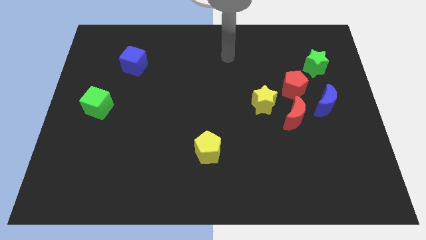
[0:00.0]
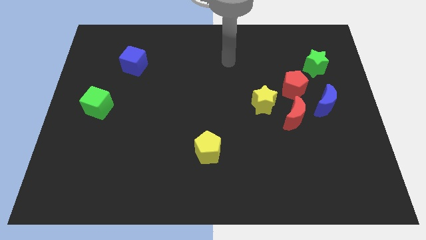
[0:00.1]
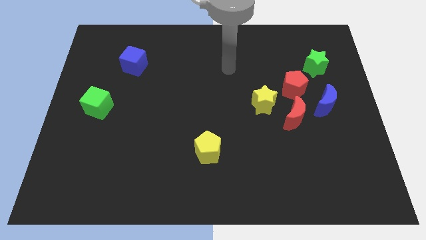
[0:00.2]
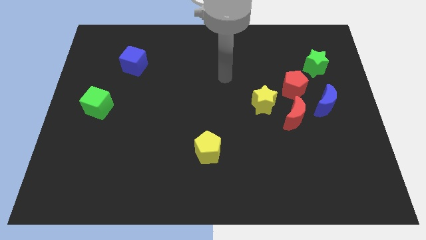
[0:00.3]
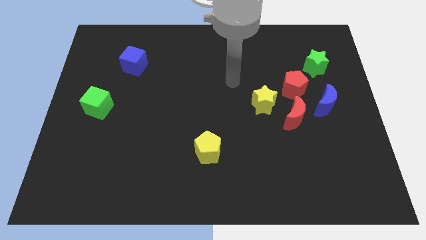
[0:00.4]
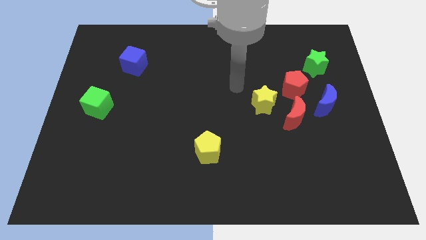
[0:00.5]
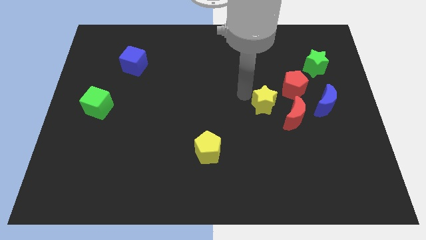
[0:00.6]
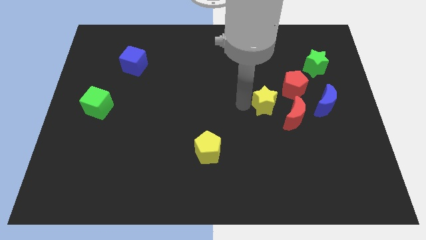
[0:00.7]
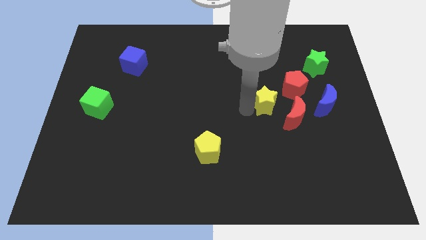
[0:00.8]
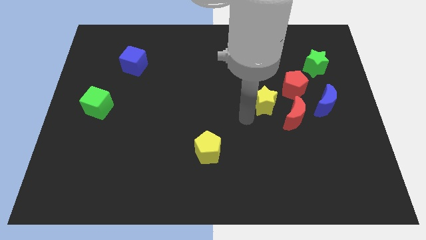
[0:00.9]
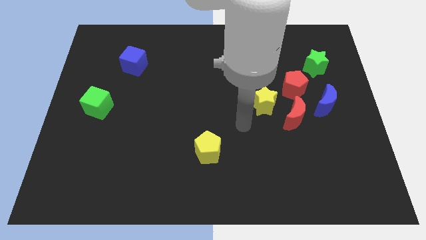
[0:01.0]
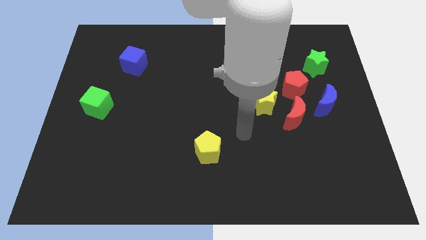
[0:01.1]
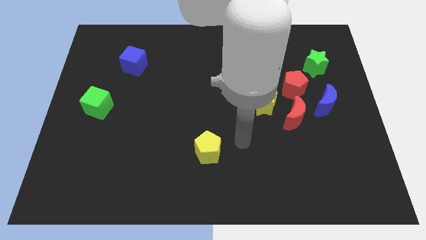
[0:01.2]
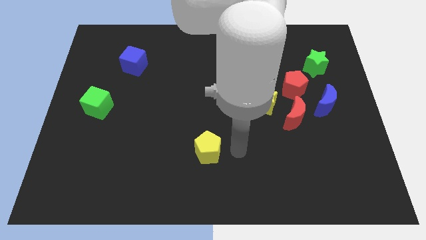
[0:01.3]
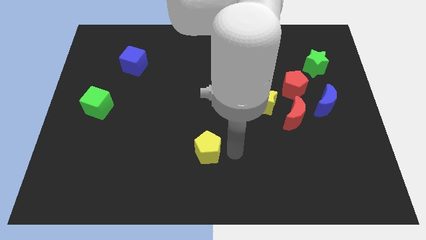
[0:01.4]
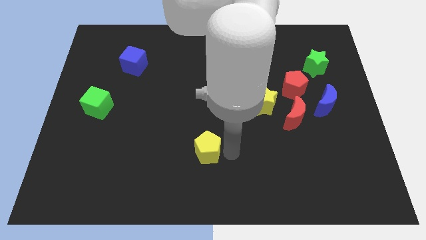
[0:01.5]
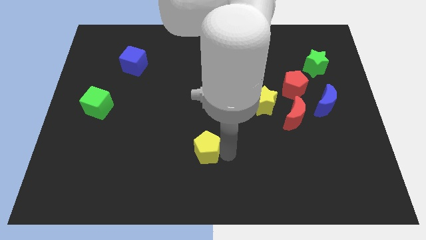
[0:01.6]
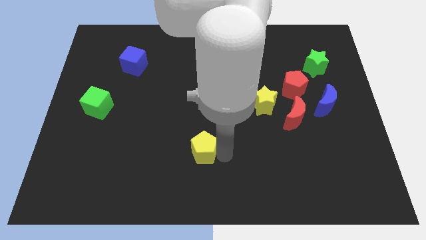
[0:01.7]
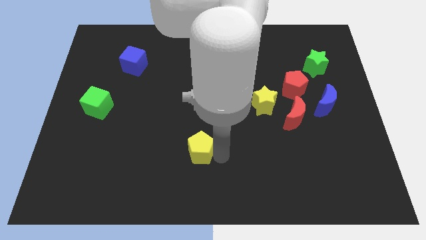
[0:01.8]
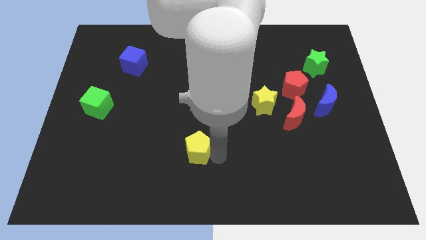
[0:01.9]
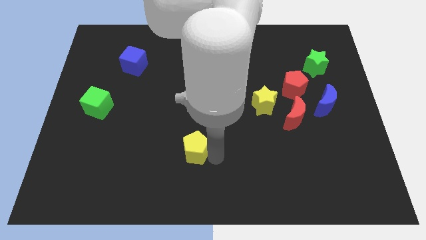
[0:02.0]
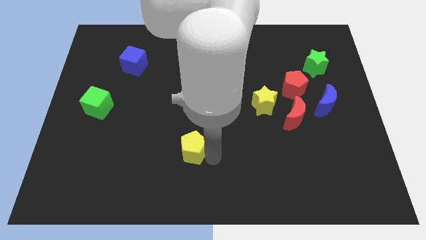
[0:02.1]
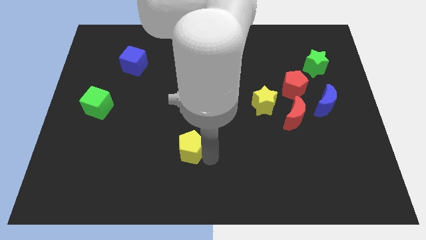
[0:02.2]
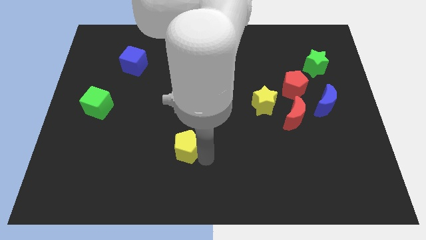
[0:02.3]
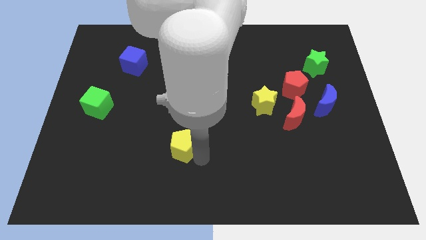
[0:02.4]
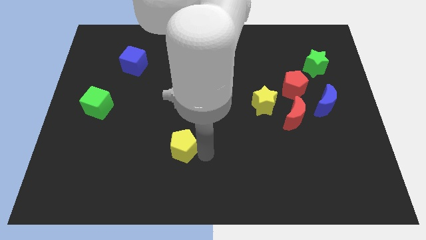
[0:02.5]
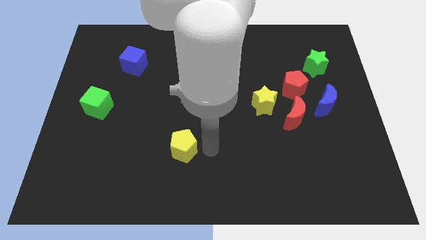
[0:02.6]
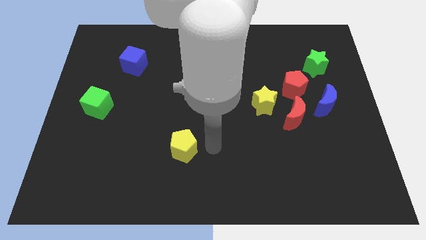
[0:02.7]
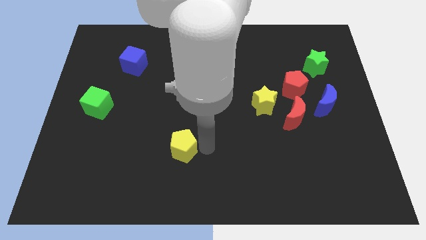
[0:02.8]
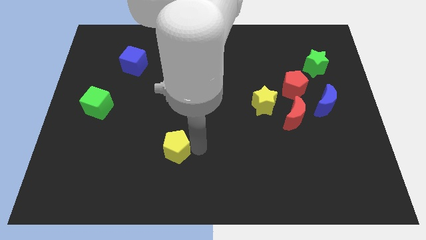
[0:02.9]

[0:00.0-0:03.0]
push the yellow pentagon a bit left

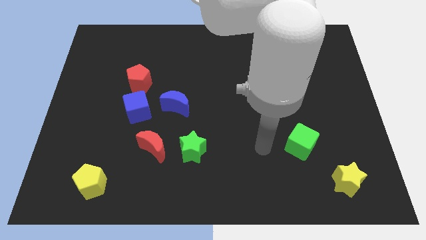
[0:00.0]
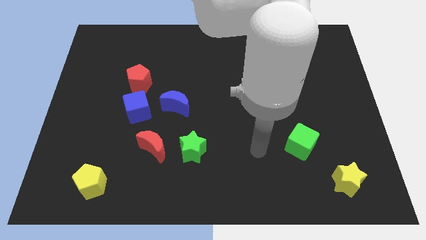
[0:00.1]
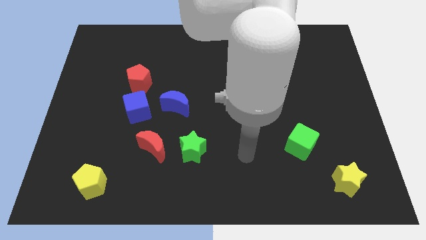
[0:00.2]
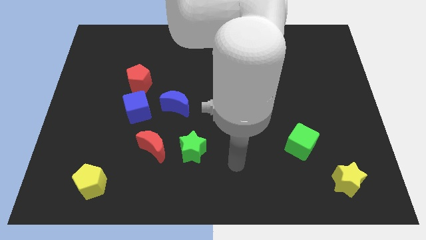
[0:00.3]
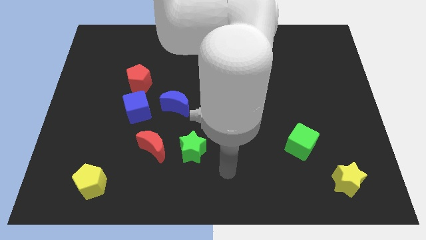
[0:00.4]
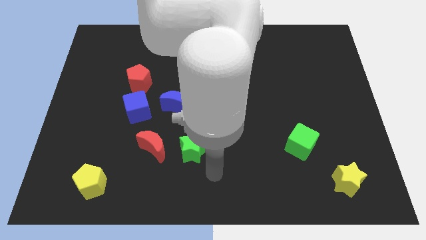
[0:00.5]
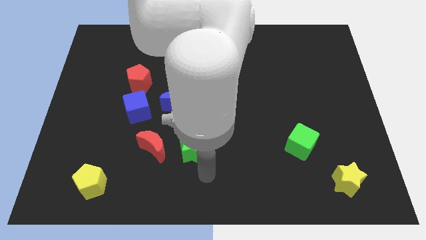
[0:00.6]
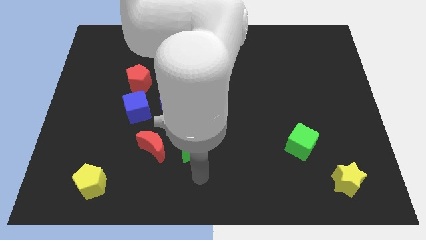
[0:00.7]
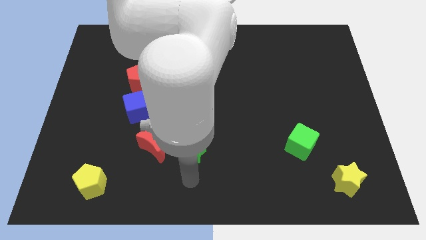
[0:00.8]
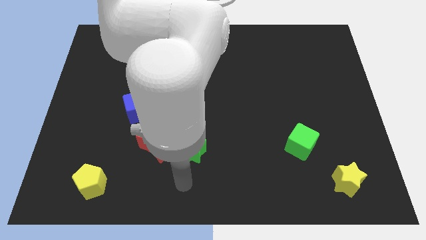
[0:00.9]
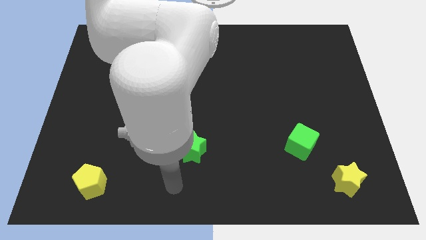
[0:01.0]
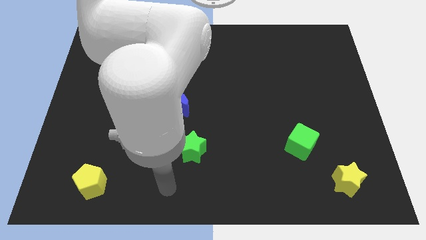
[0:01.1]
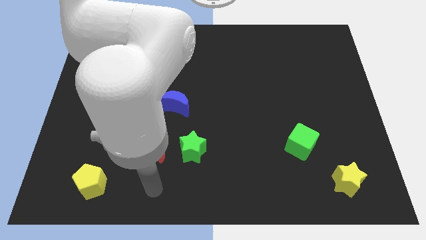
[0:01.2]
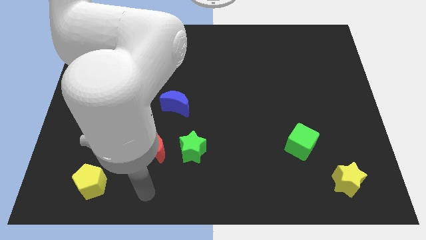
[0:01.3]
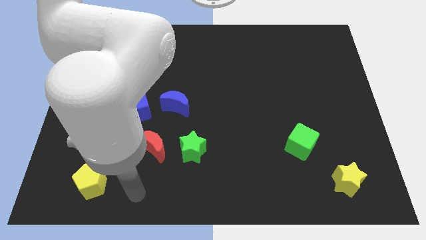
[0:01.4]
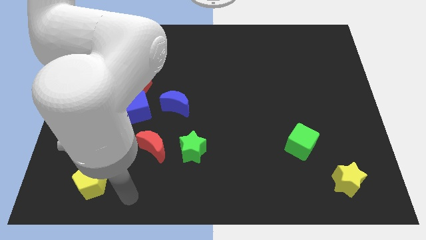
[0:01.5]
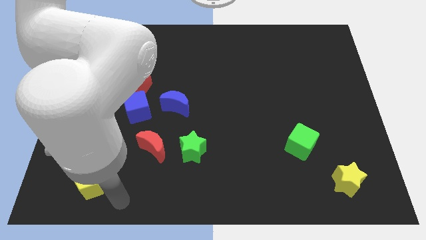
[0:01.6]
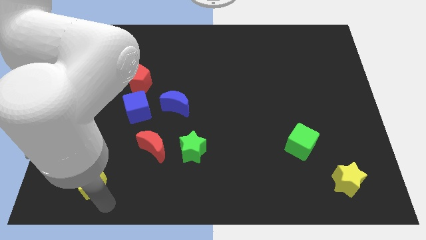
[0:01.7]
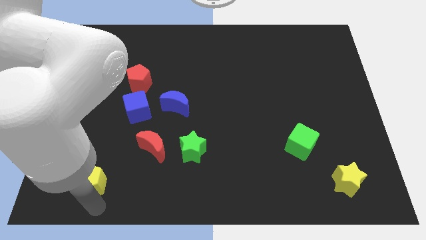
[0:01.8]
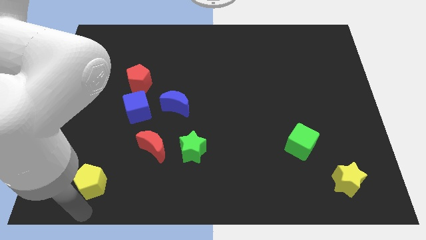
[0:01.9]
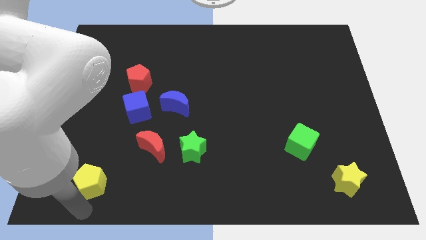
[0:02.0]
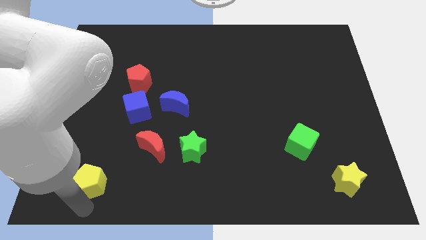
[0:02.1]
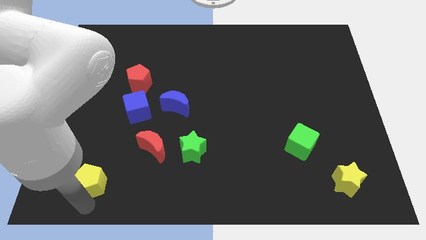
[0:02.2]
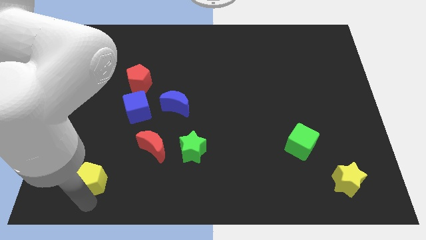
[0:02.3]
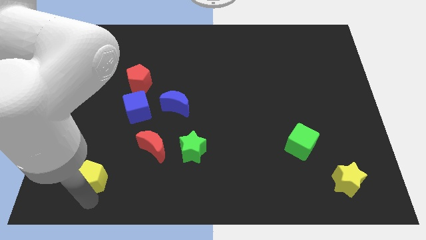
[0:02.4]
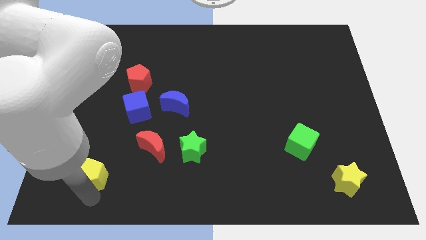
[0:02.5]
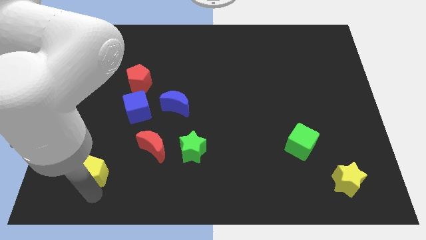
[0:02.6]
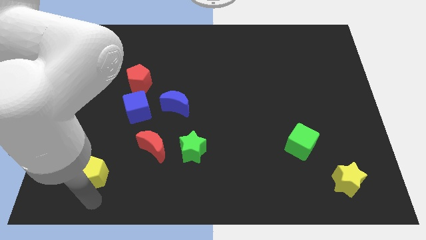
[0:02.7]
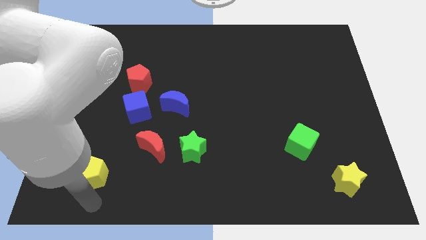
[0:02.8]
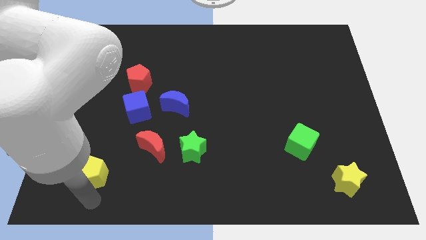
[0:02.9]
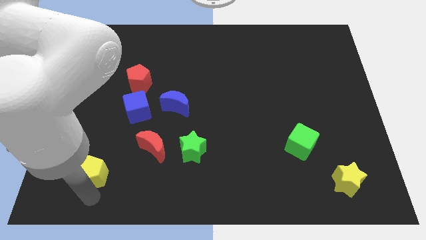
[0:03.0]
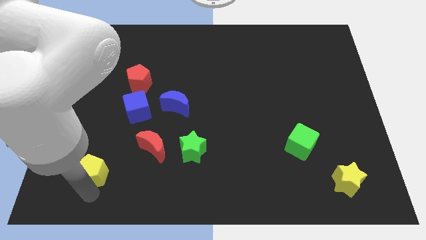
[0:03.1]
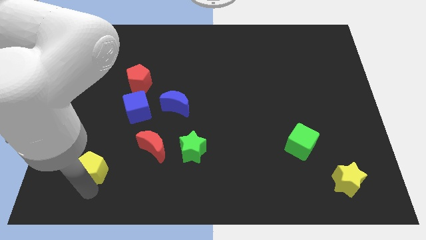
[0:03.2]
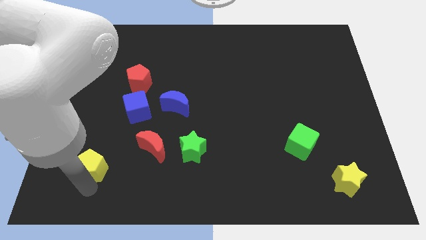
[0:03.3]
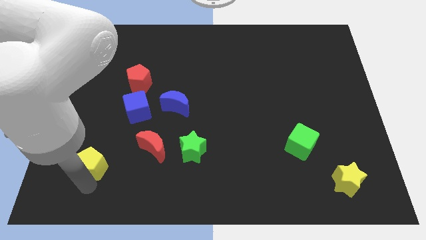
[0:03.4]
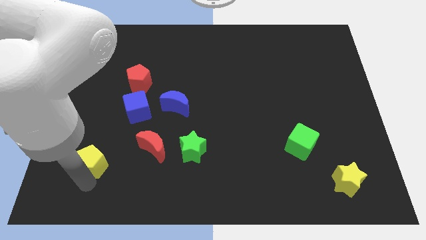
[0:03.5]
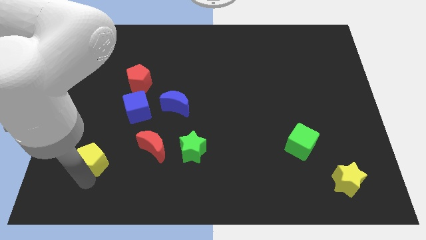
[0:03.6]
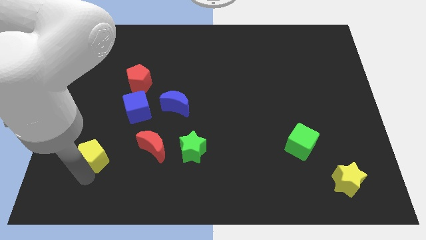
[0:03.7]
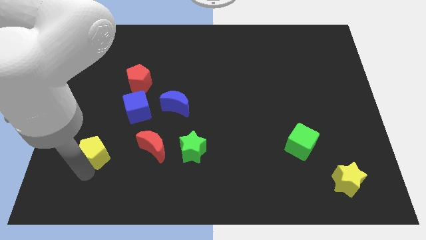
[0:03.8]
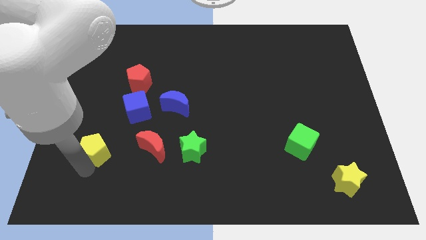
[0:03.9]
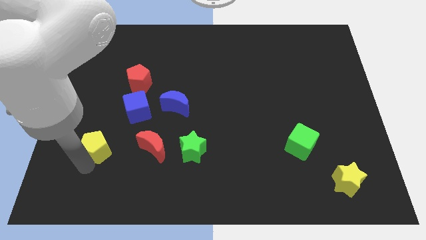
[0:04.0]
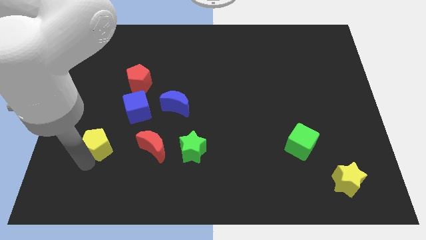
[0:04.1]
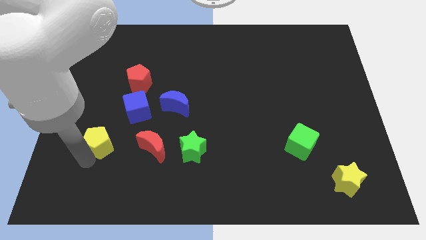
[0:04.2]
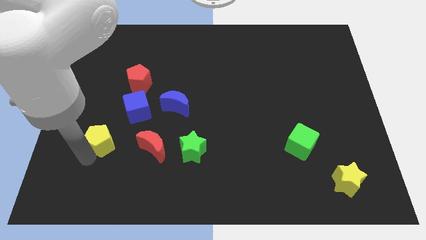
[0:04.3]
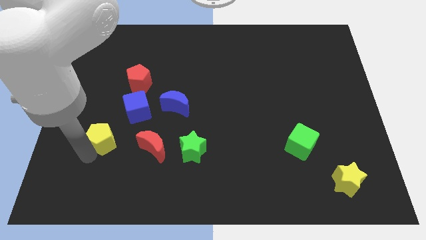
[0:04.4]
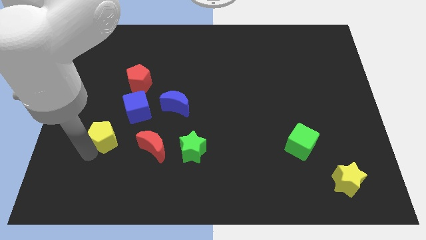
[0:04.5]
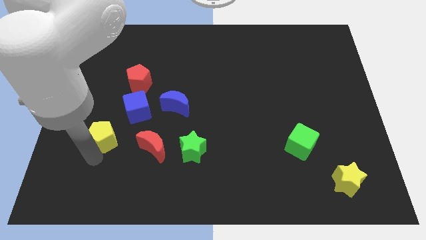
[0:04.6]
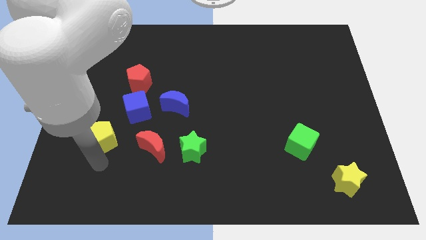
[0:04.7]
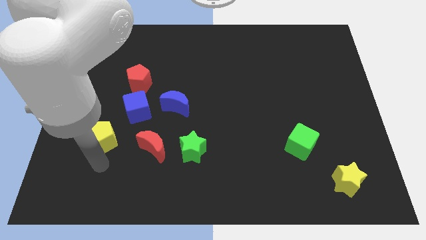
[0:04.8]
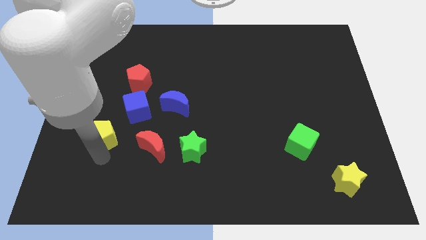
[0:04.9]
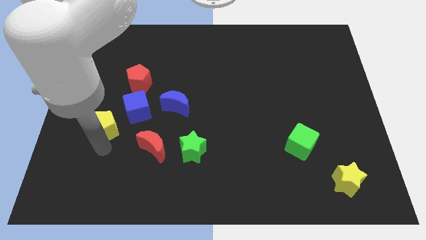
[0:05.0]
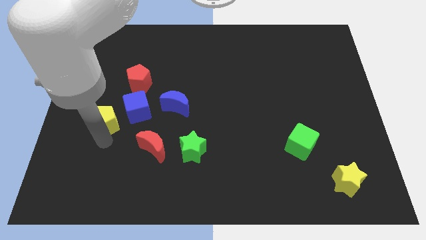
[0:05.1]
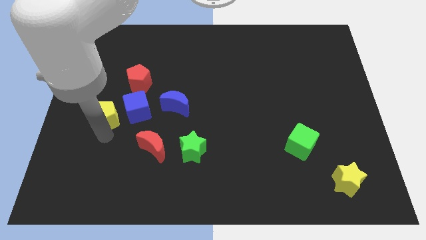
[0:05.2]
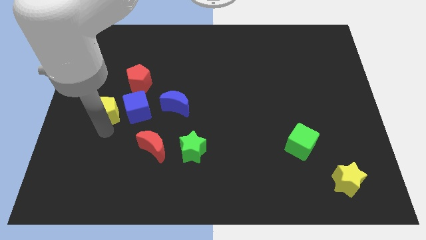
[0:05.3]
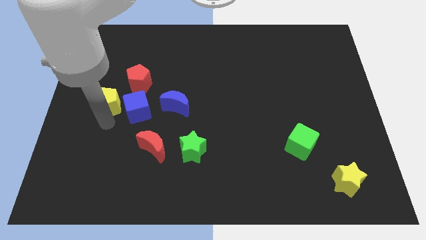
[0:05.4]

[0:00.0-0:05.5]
push the yellow pentagon up

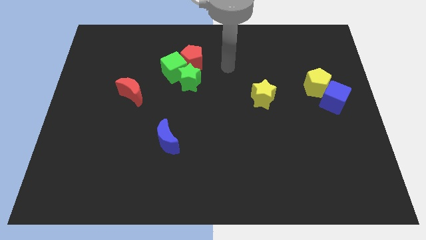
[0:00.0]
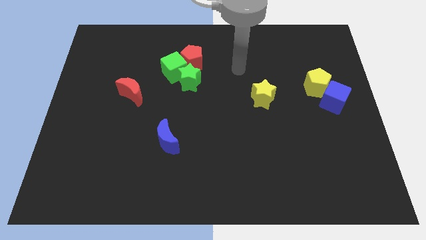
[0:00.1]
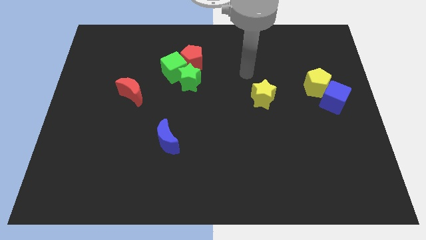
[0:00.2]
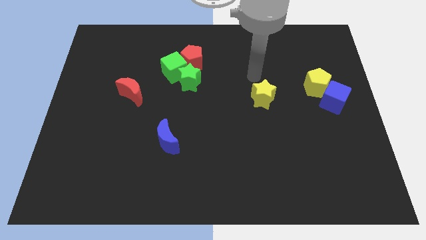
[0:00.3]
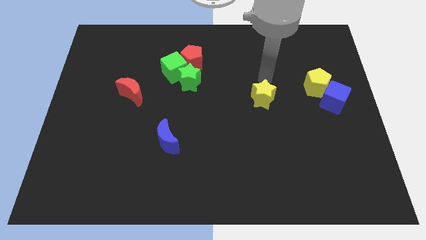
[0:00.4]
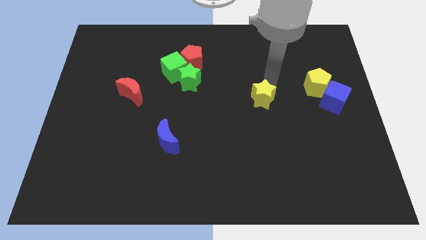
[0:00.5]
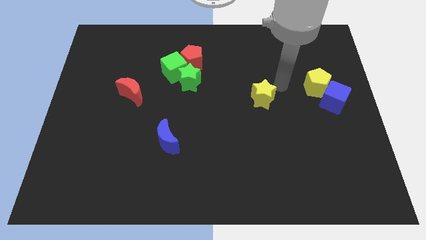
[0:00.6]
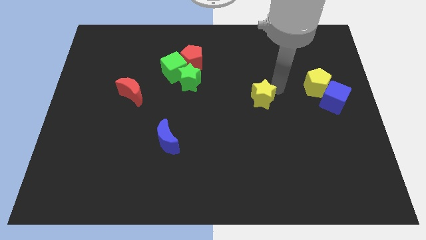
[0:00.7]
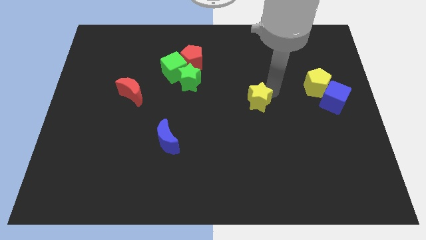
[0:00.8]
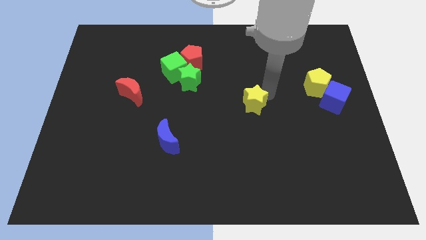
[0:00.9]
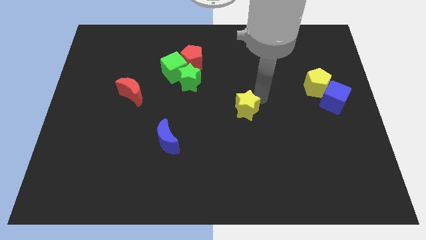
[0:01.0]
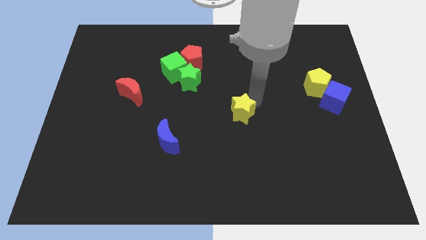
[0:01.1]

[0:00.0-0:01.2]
slightly slide the yellow star down and to the left diagonally
